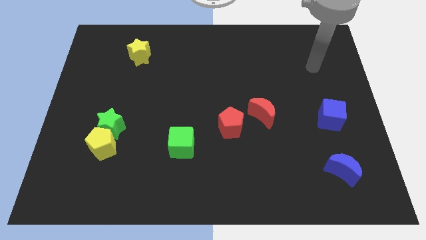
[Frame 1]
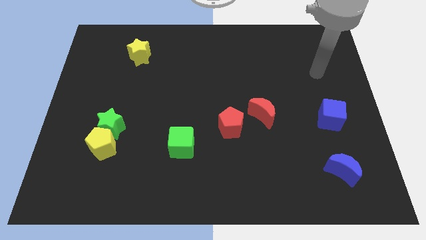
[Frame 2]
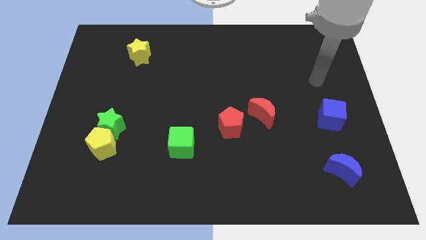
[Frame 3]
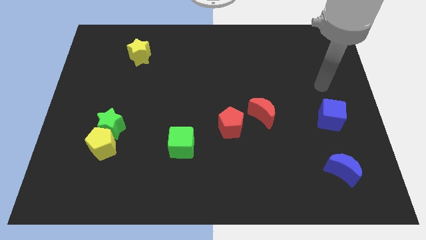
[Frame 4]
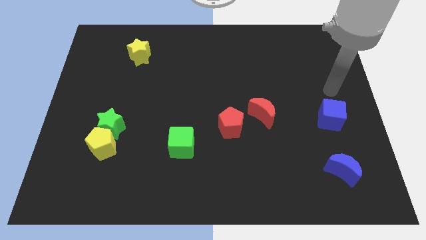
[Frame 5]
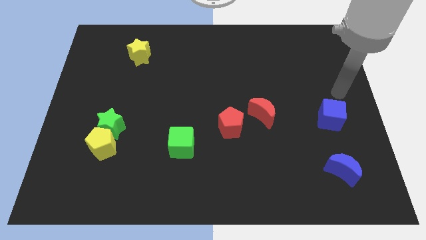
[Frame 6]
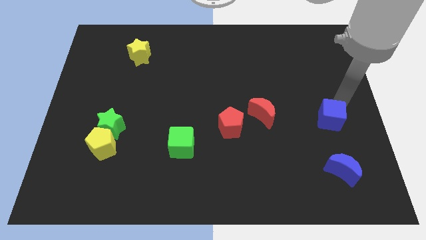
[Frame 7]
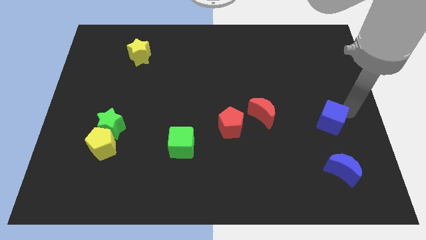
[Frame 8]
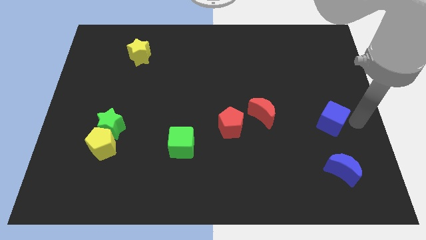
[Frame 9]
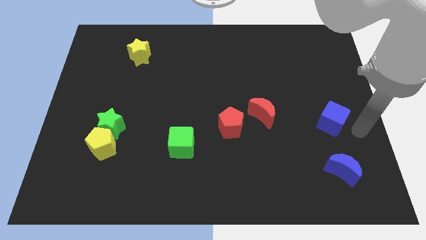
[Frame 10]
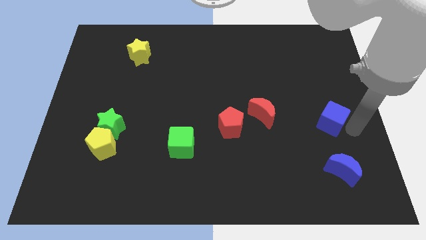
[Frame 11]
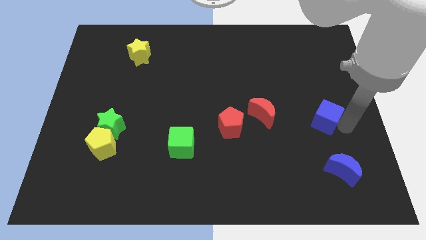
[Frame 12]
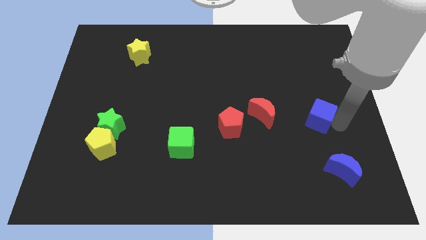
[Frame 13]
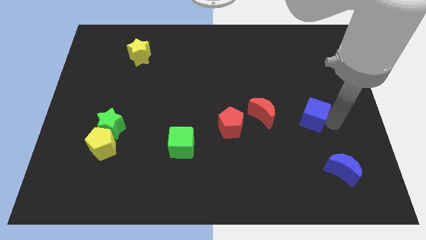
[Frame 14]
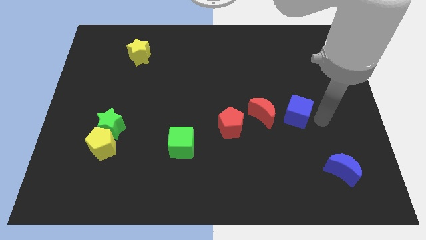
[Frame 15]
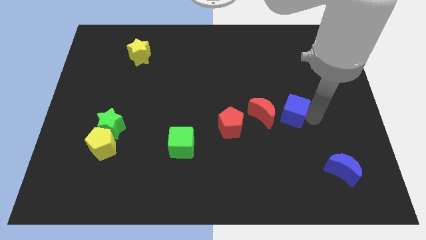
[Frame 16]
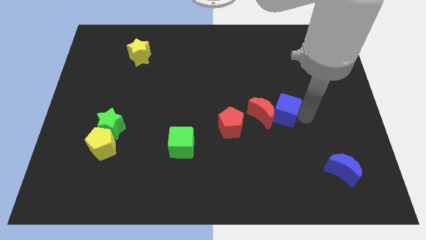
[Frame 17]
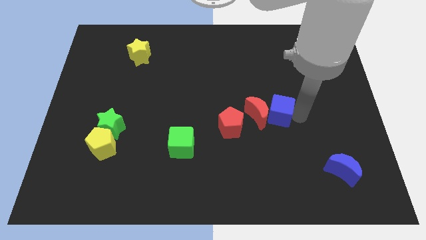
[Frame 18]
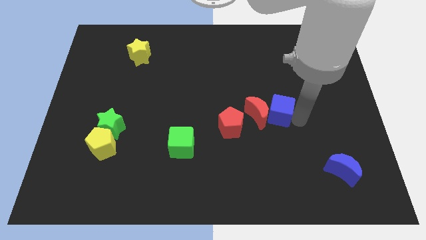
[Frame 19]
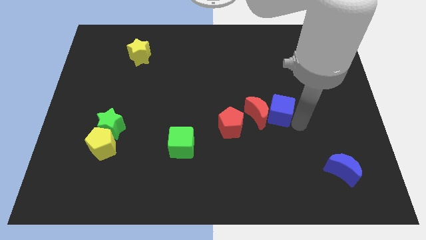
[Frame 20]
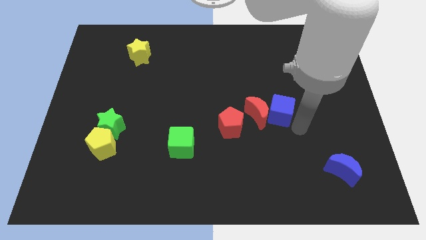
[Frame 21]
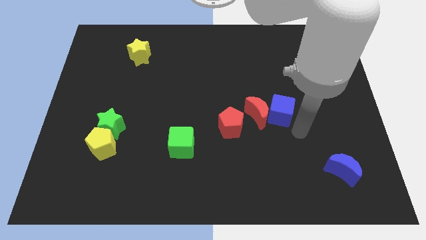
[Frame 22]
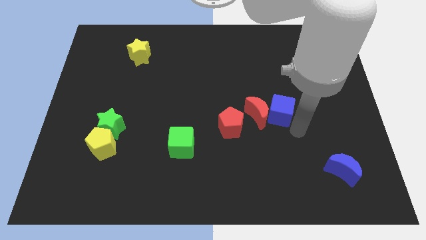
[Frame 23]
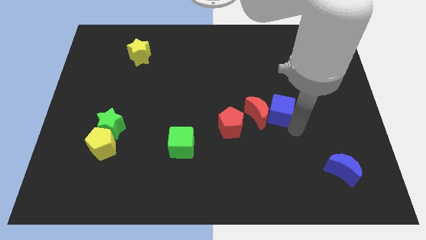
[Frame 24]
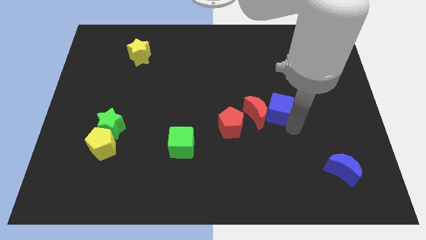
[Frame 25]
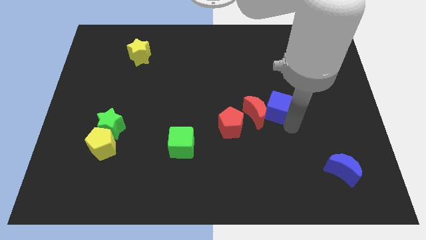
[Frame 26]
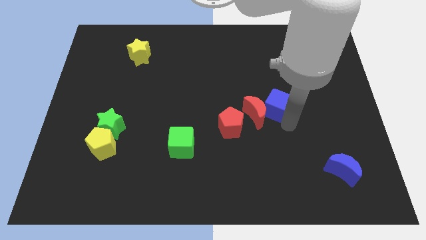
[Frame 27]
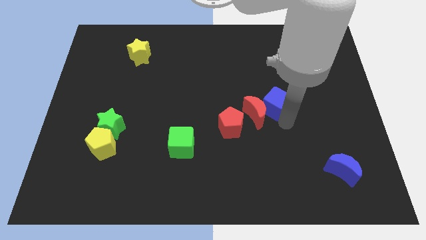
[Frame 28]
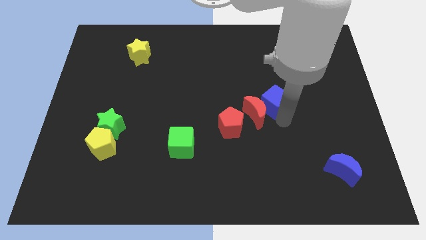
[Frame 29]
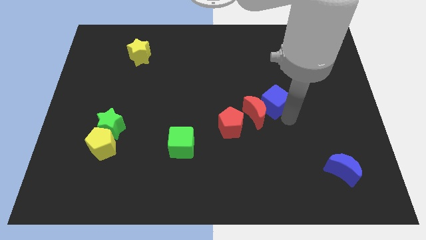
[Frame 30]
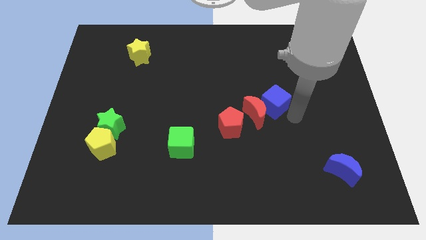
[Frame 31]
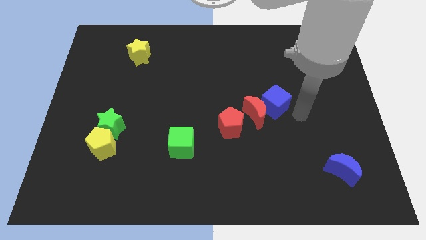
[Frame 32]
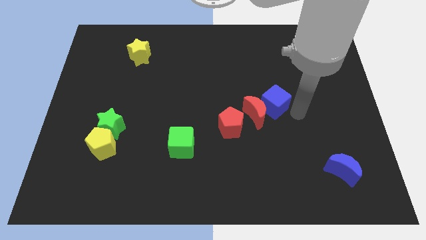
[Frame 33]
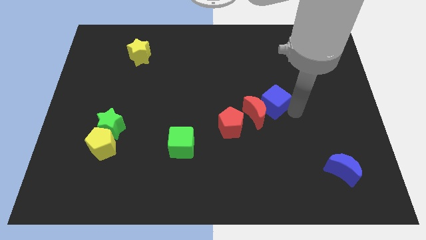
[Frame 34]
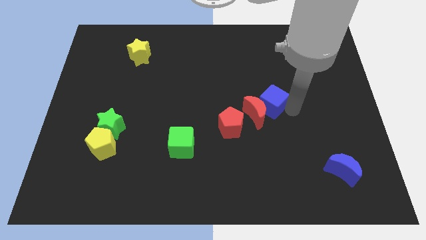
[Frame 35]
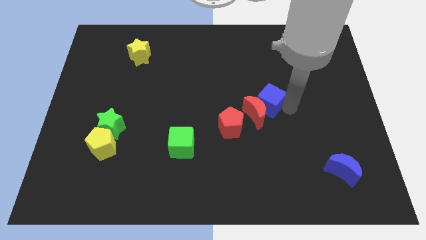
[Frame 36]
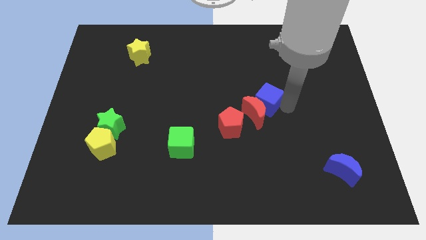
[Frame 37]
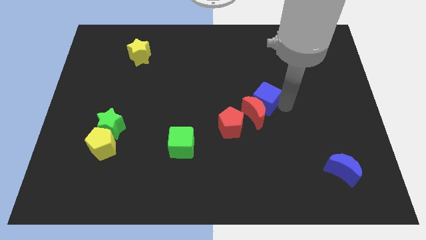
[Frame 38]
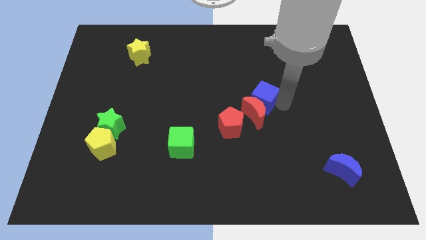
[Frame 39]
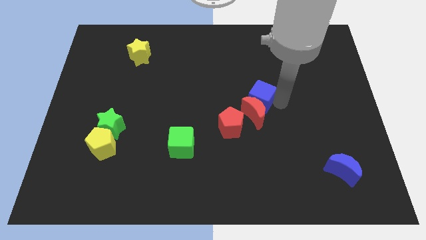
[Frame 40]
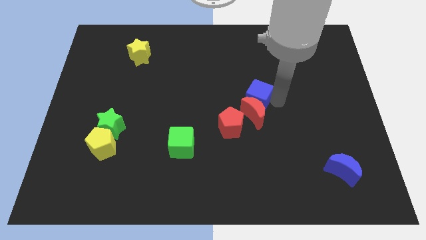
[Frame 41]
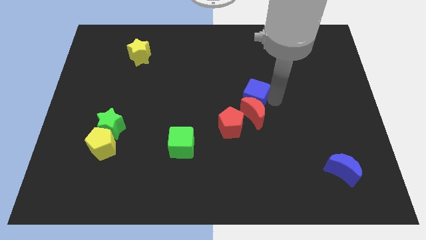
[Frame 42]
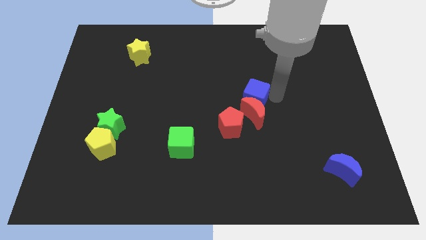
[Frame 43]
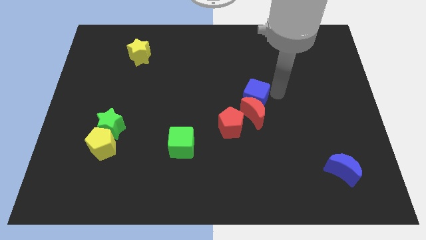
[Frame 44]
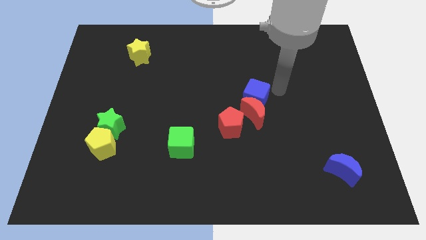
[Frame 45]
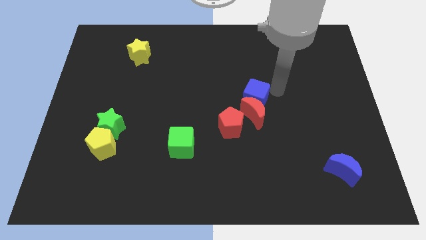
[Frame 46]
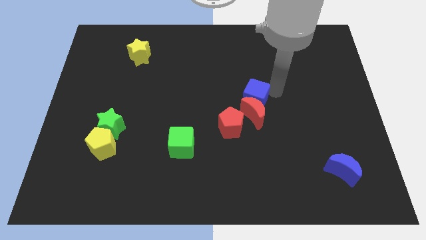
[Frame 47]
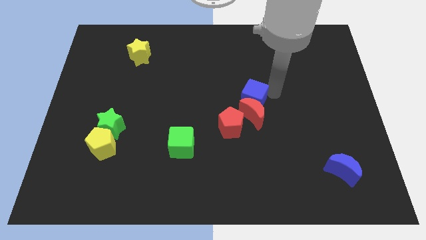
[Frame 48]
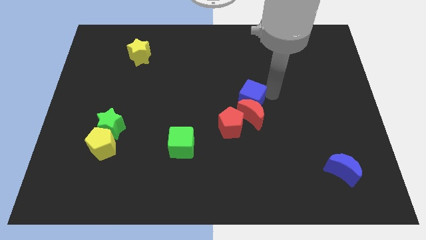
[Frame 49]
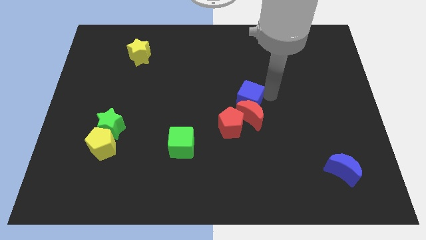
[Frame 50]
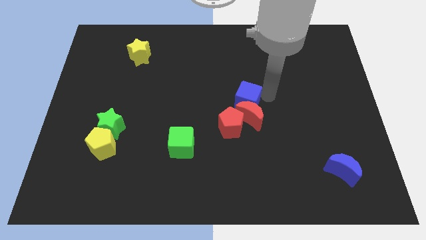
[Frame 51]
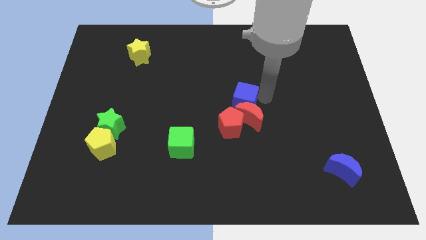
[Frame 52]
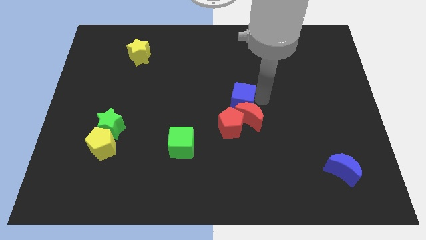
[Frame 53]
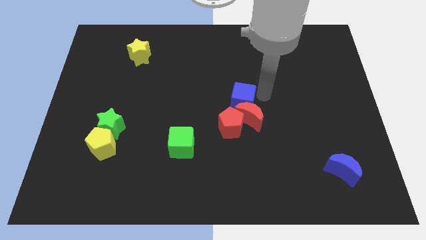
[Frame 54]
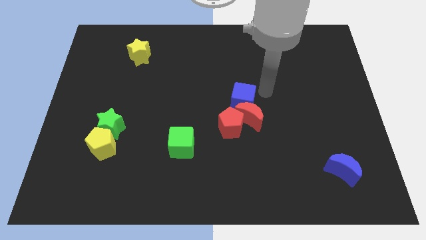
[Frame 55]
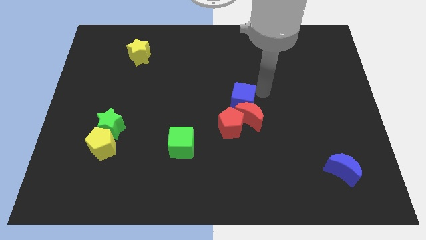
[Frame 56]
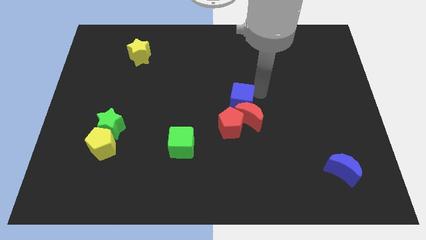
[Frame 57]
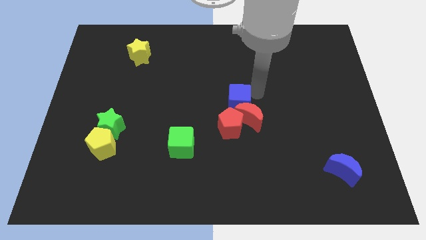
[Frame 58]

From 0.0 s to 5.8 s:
push the blue cube left

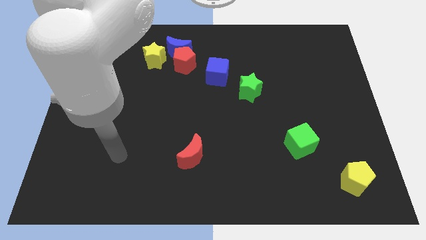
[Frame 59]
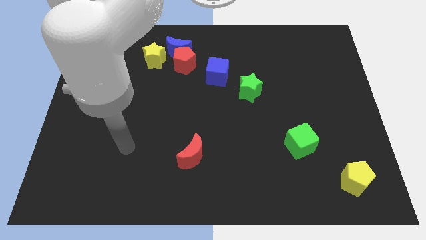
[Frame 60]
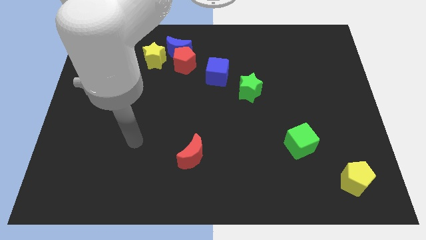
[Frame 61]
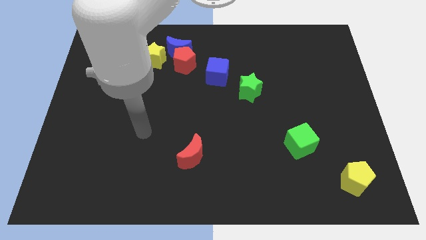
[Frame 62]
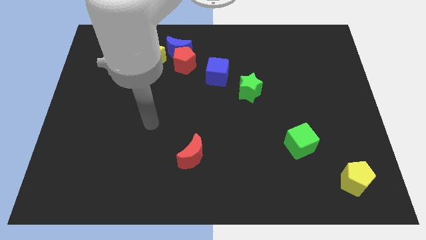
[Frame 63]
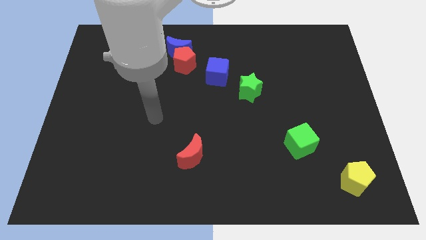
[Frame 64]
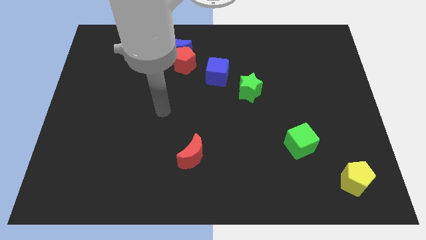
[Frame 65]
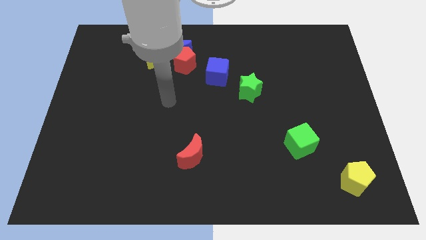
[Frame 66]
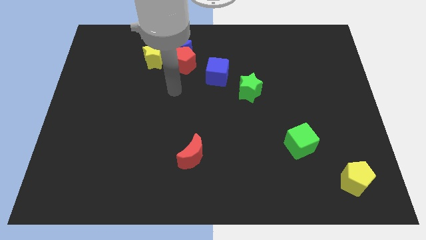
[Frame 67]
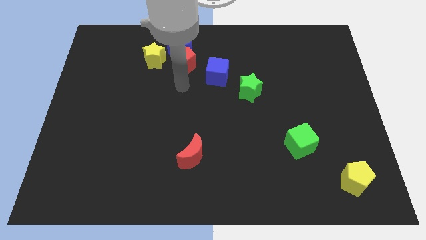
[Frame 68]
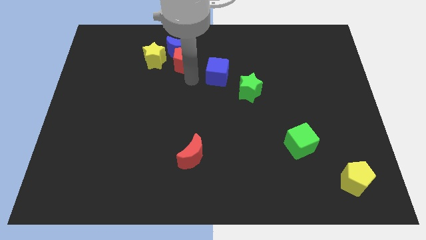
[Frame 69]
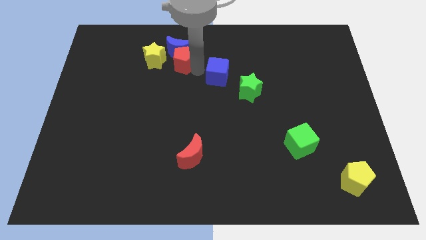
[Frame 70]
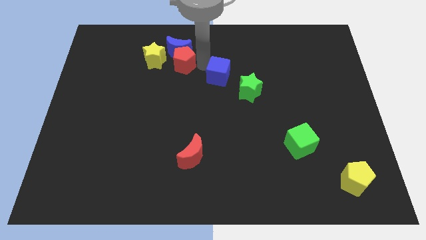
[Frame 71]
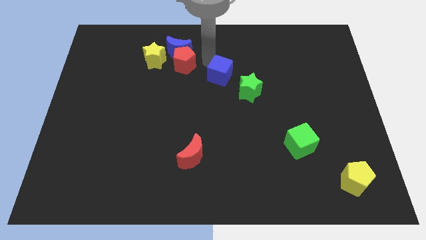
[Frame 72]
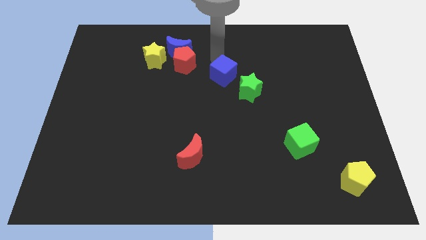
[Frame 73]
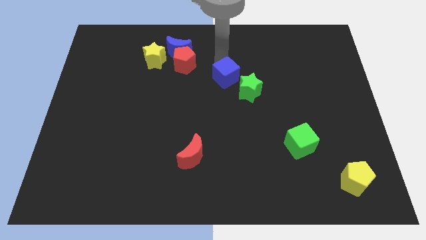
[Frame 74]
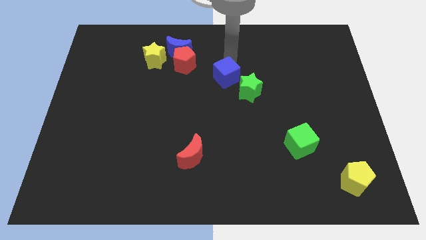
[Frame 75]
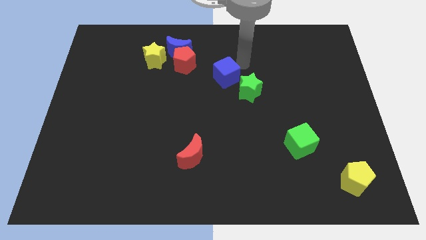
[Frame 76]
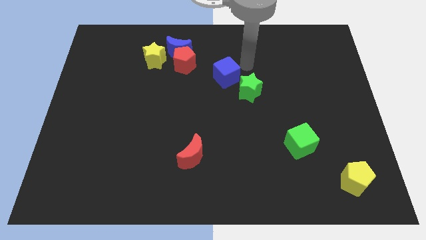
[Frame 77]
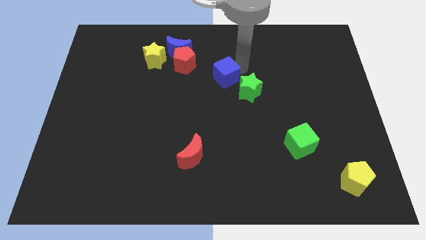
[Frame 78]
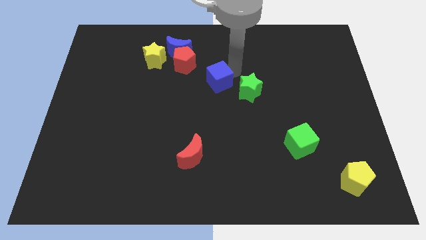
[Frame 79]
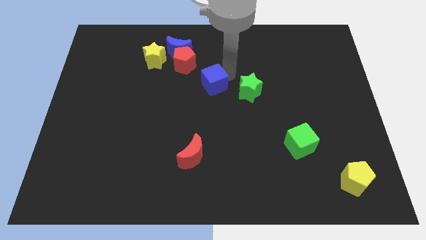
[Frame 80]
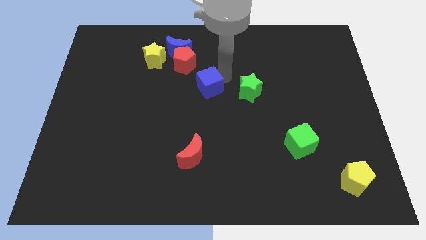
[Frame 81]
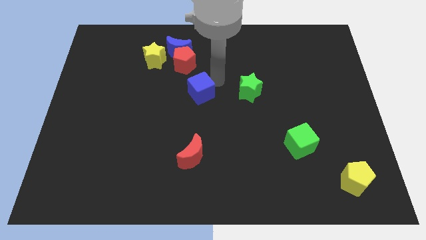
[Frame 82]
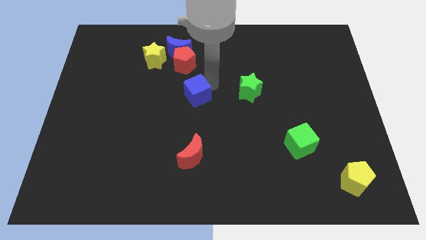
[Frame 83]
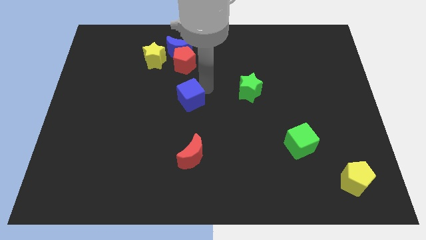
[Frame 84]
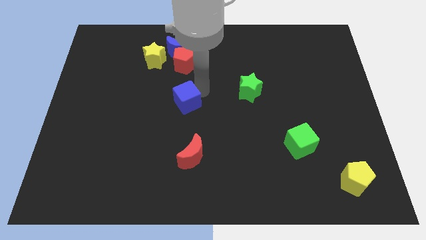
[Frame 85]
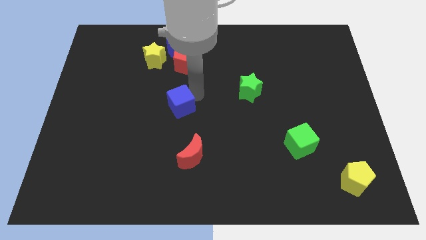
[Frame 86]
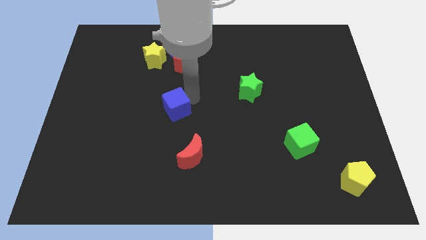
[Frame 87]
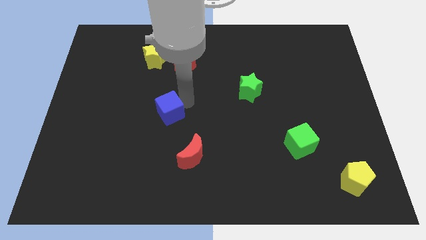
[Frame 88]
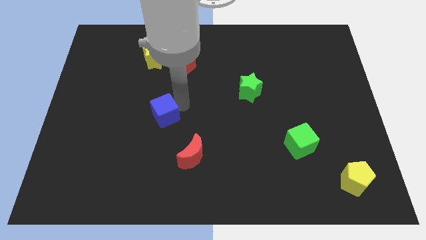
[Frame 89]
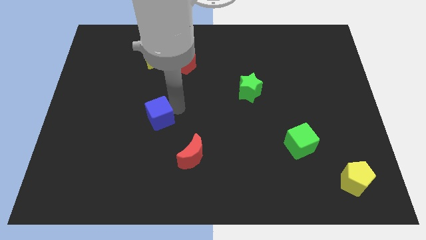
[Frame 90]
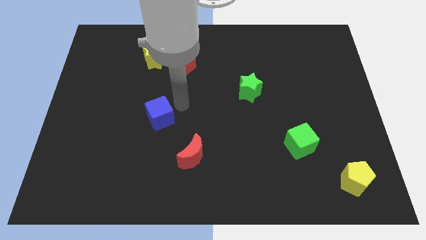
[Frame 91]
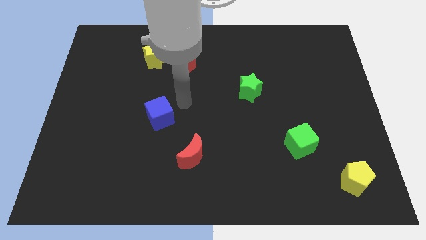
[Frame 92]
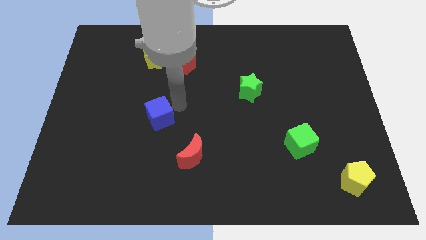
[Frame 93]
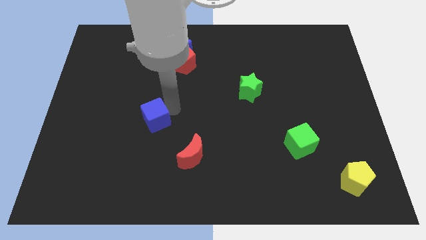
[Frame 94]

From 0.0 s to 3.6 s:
slide the blue cube down and left diagonally
